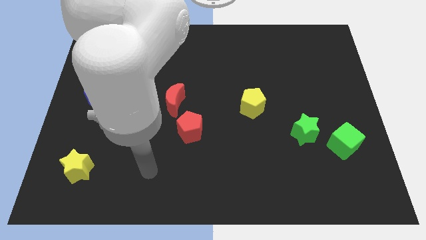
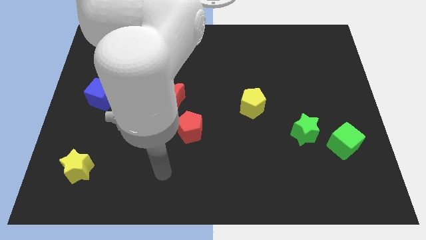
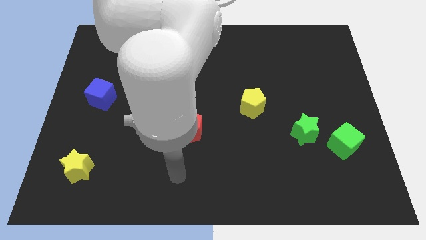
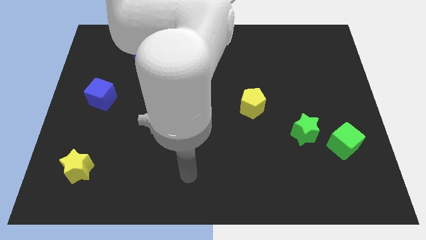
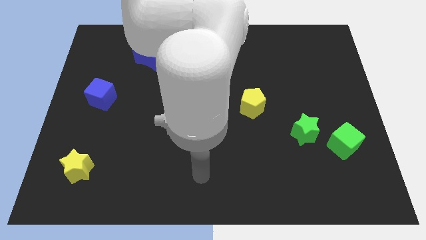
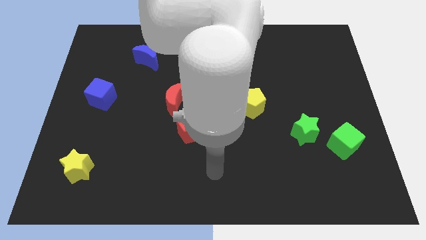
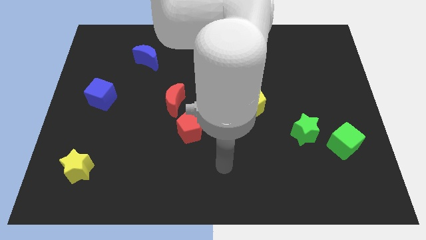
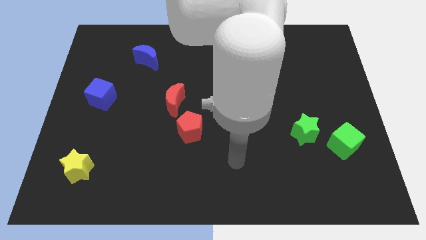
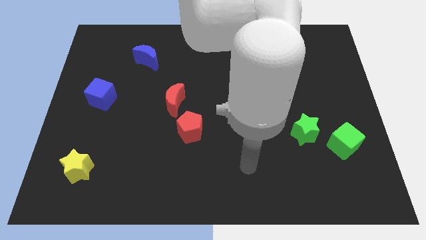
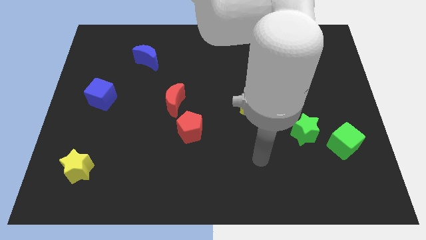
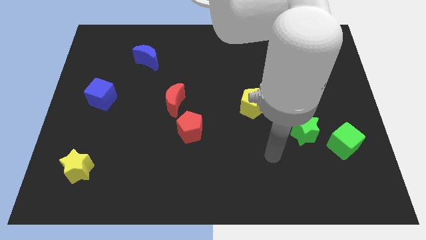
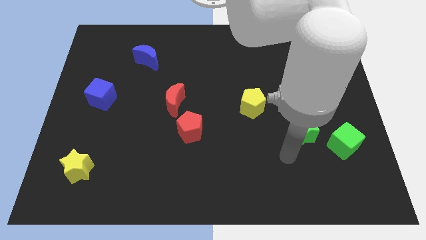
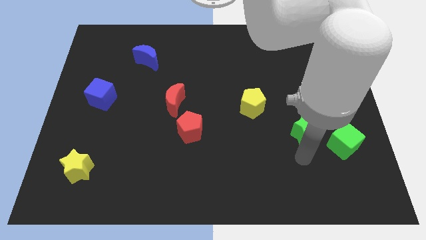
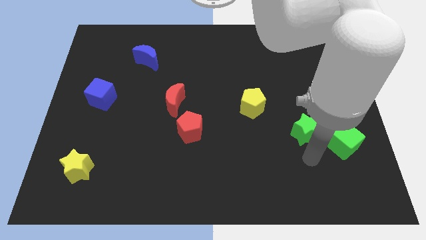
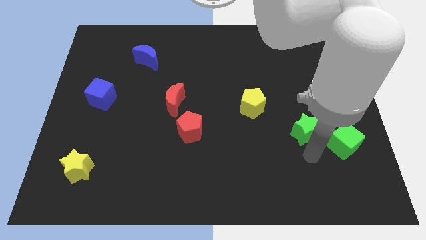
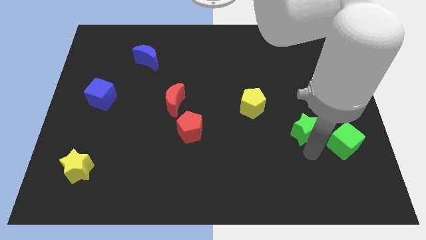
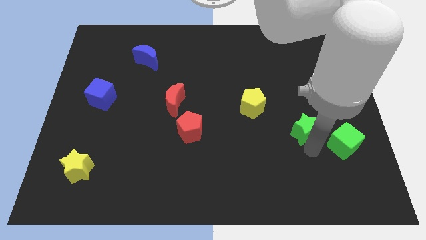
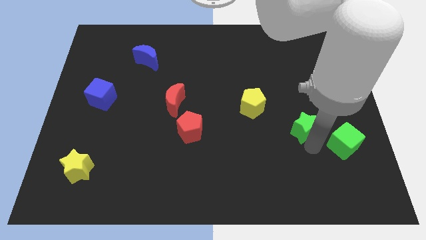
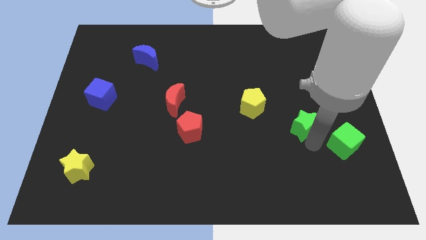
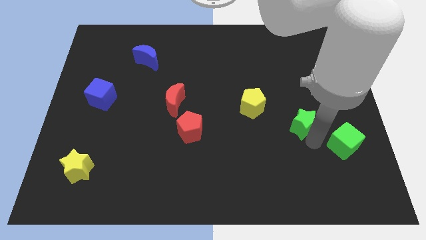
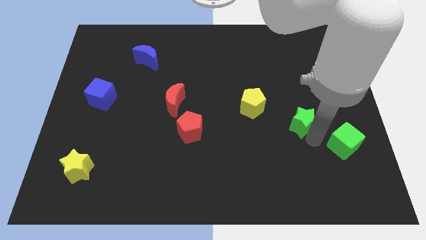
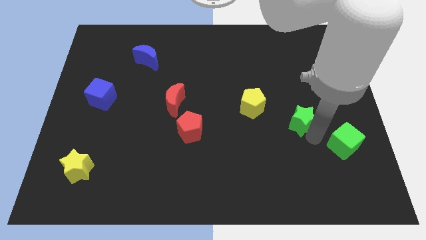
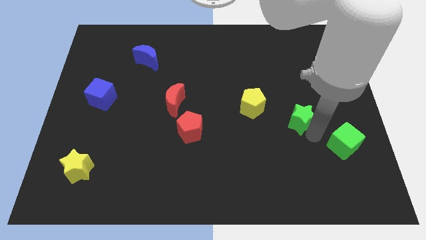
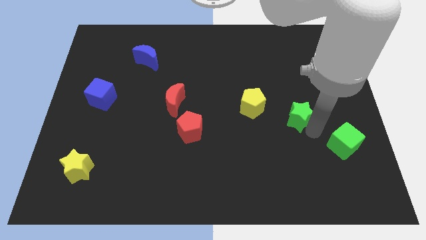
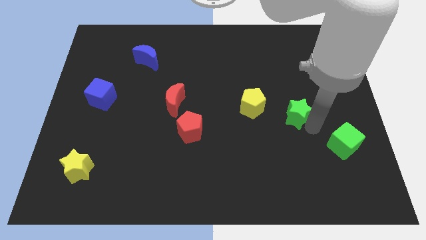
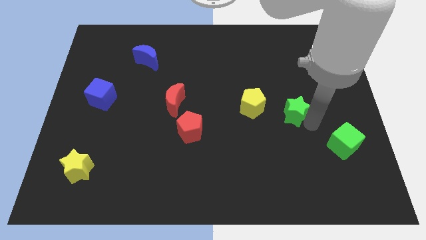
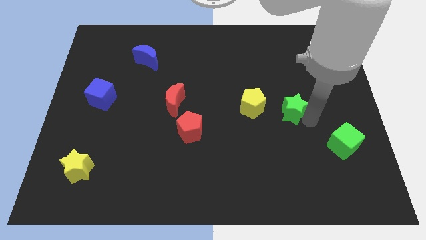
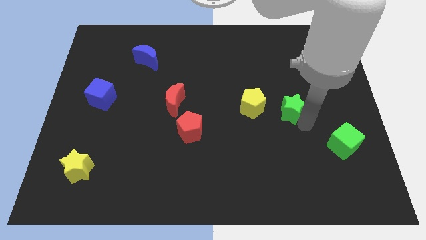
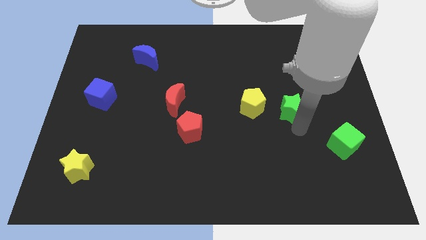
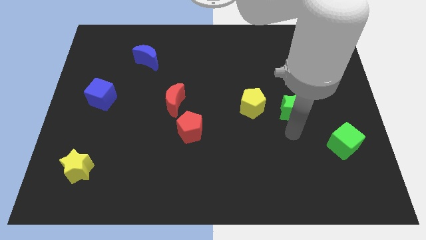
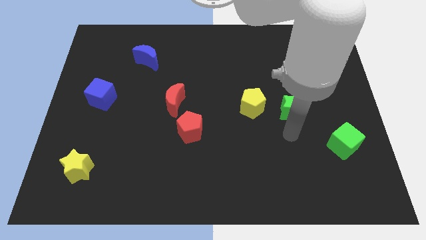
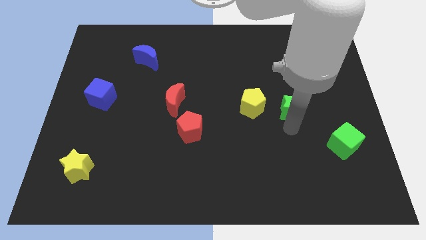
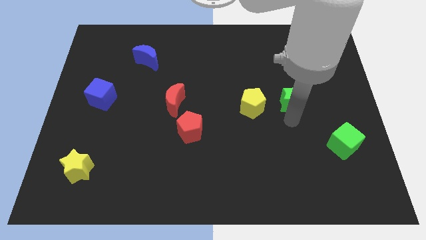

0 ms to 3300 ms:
push the green star up a little bit

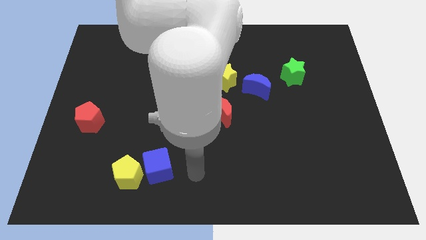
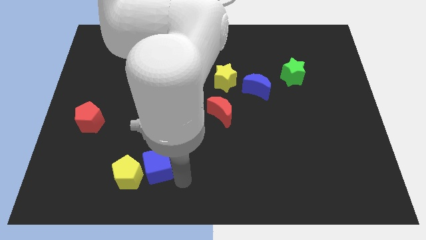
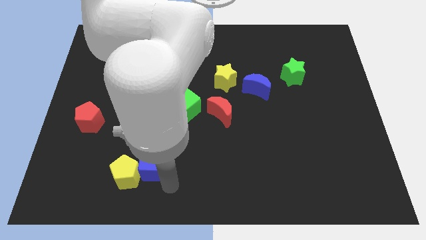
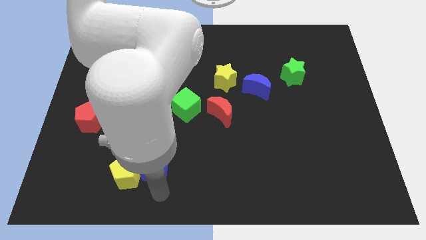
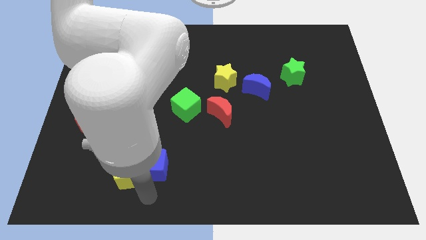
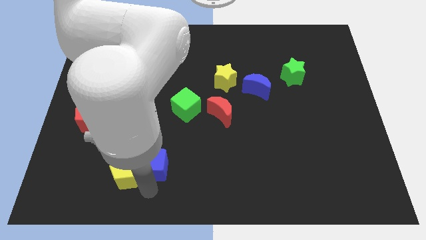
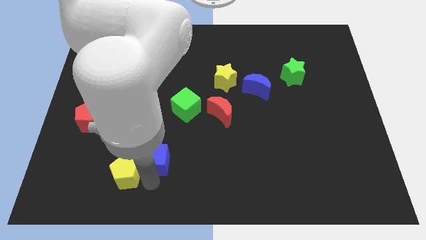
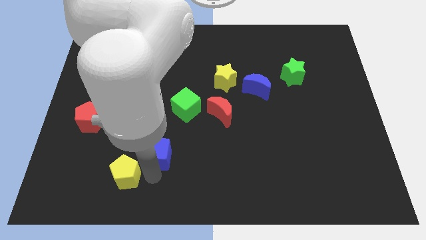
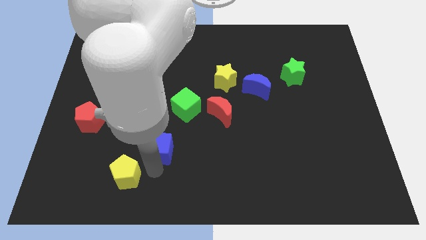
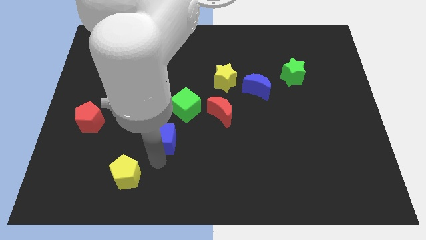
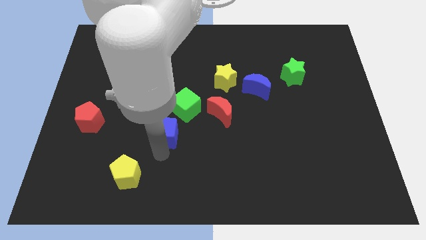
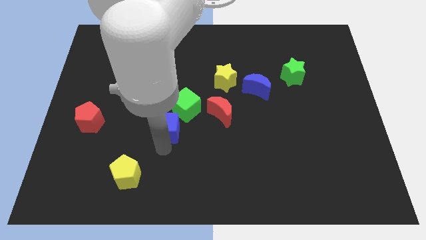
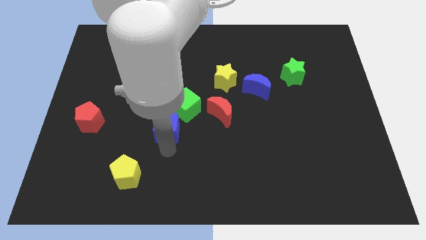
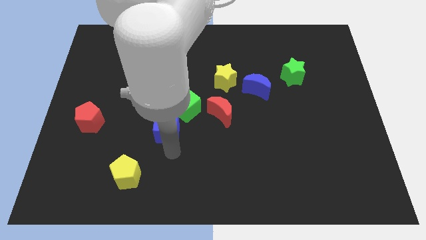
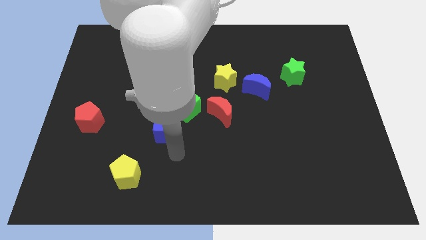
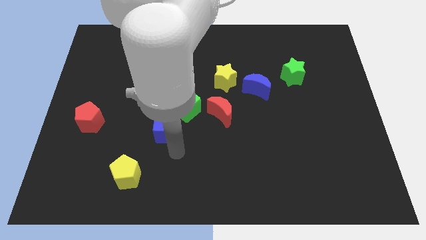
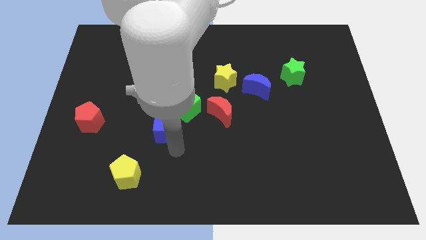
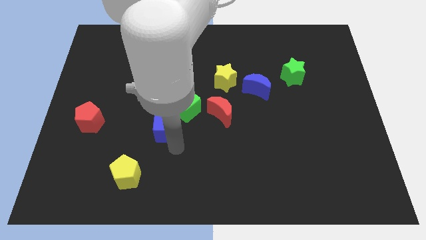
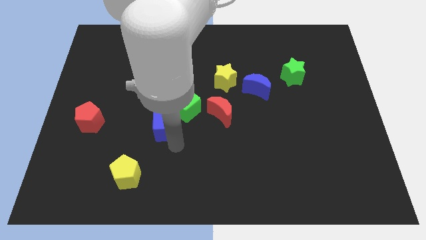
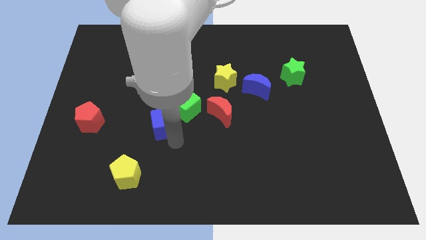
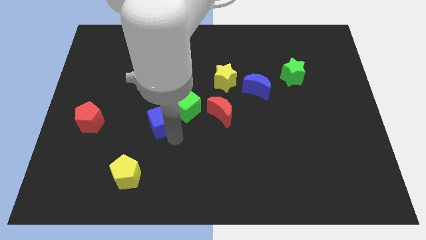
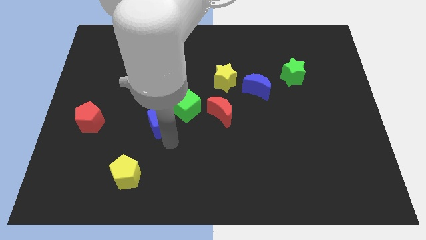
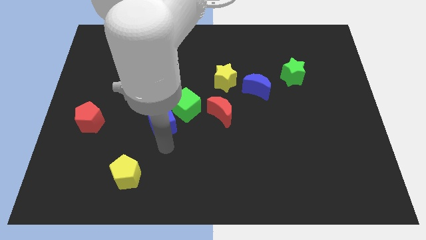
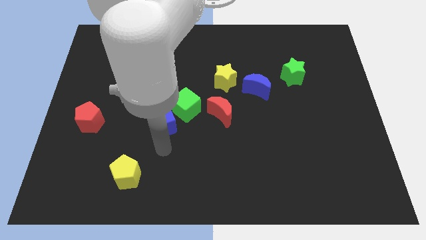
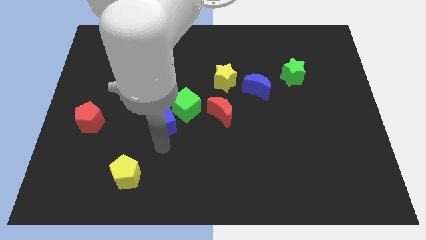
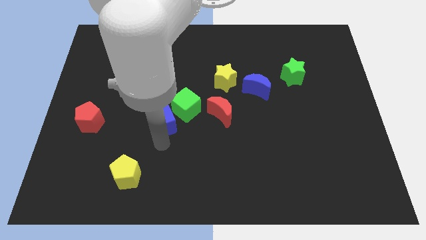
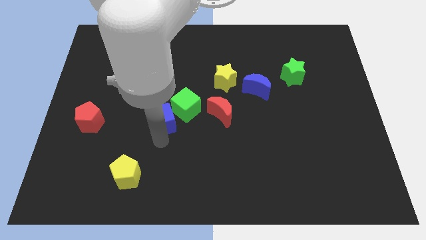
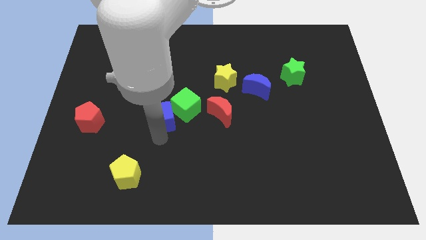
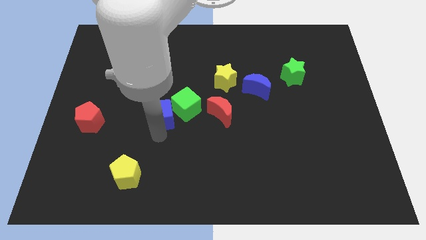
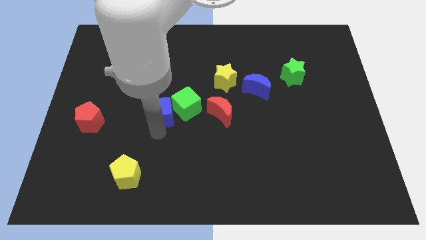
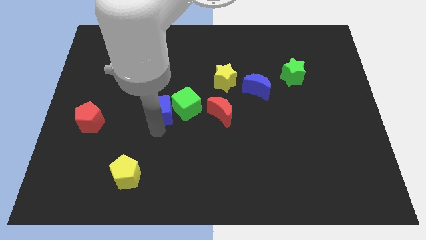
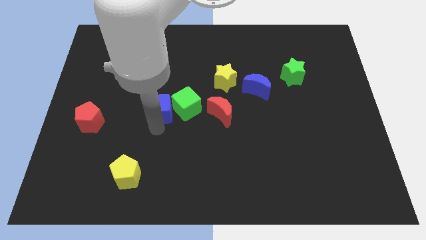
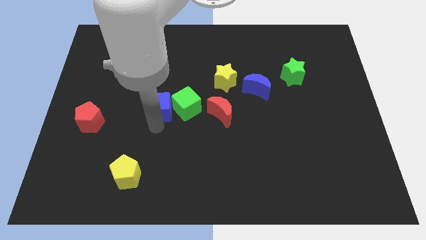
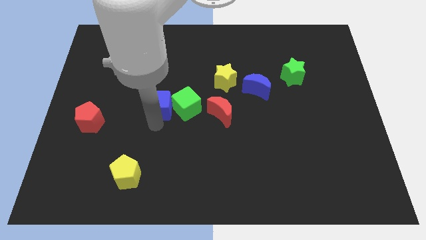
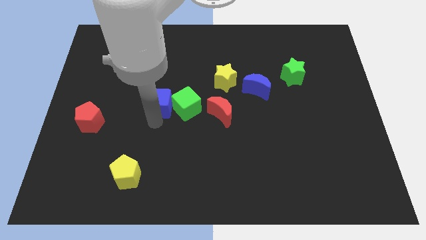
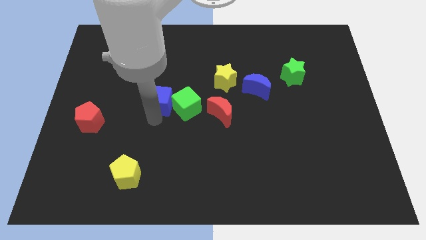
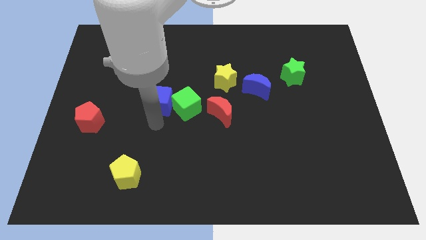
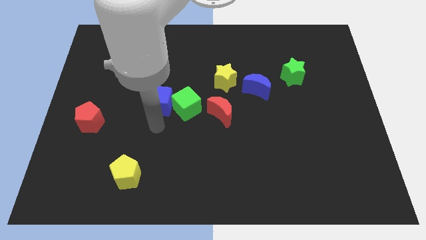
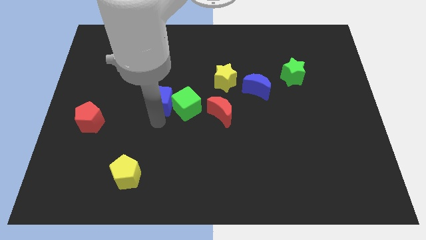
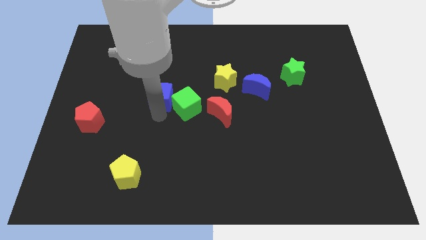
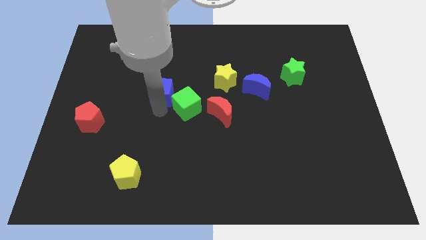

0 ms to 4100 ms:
move the blue cube upwards

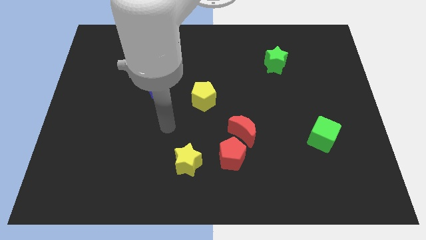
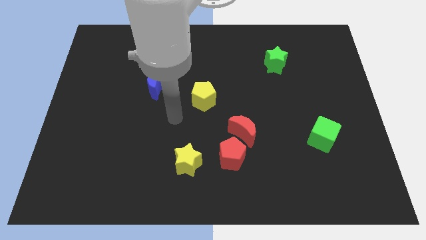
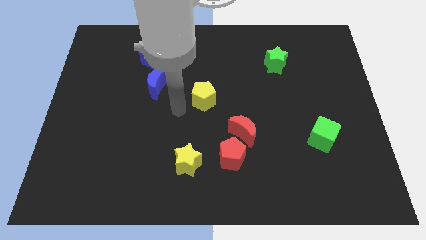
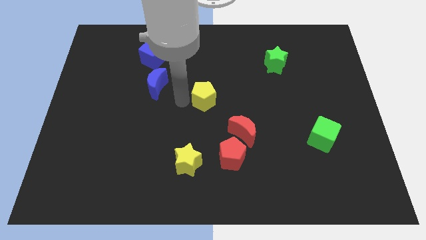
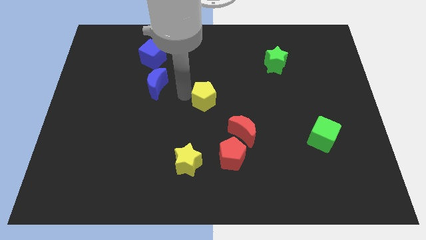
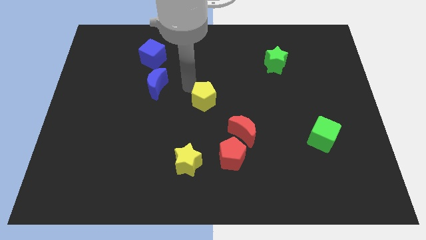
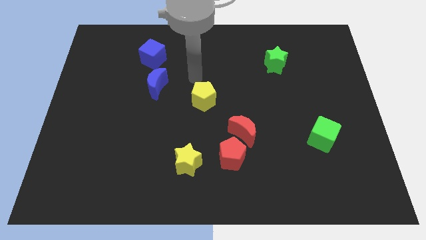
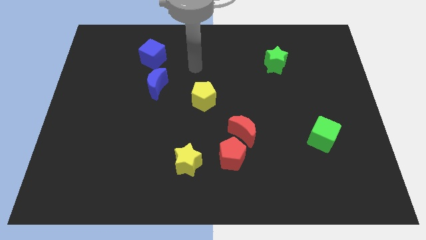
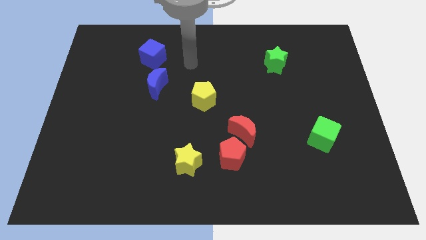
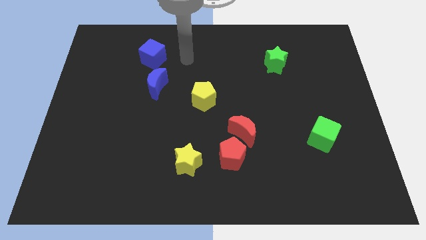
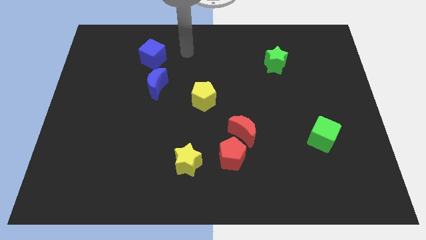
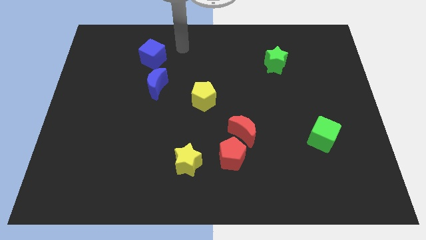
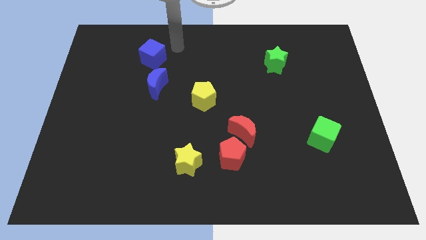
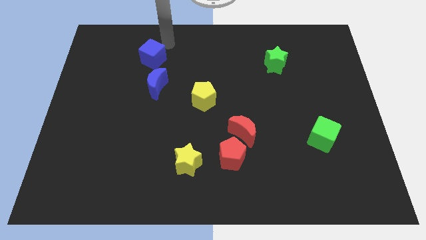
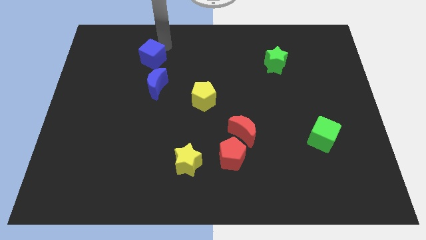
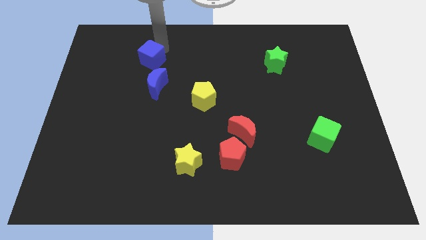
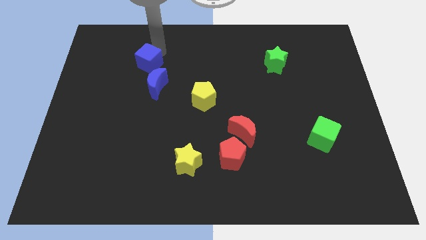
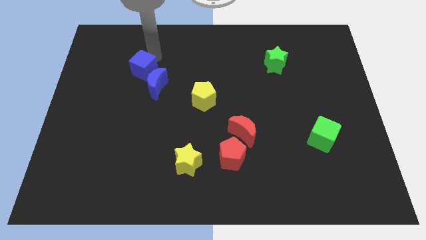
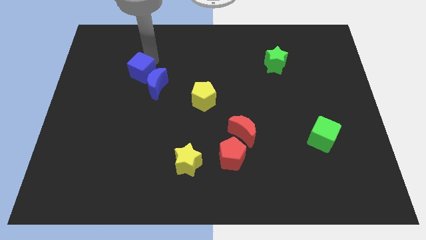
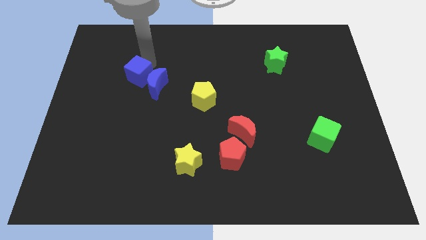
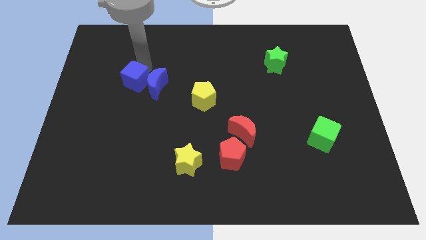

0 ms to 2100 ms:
slightly push the blue cube downwards
